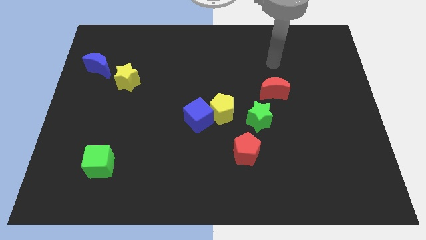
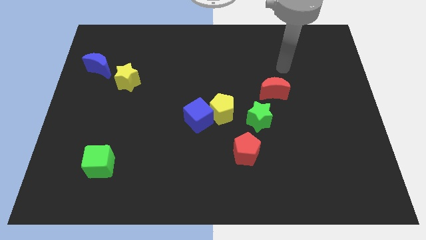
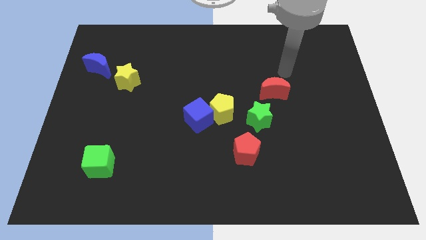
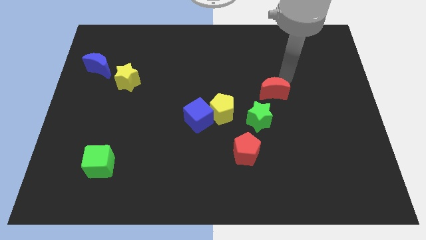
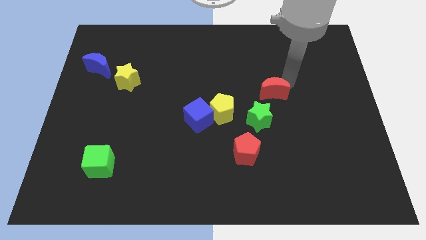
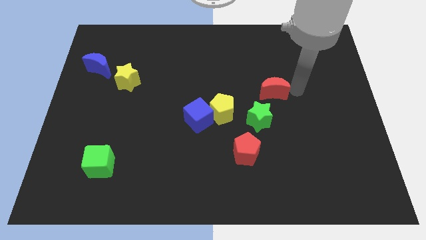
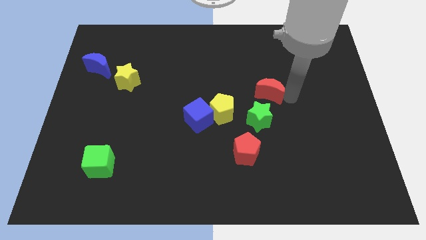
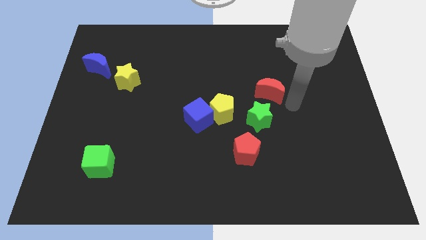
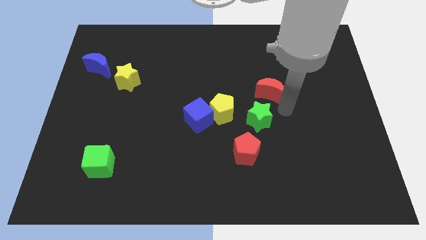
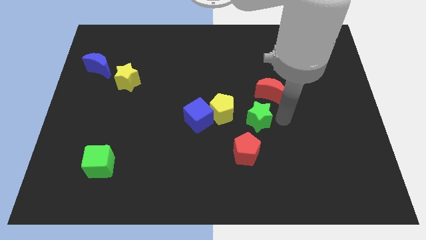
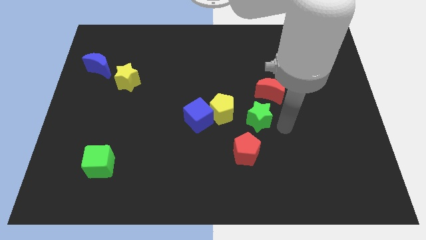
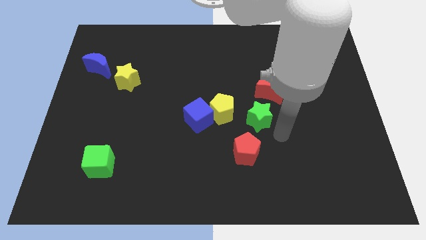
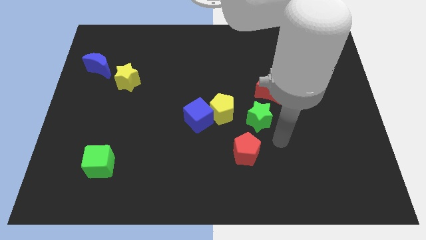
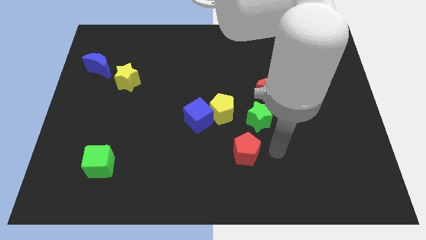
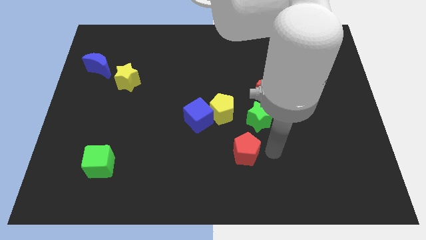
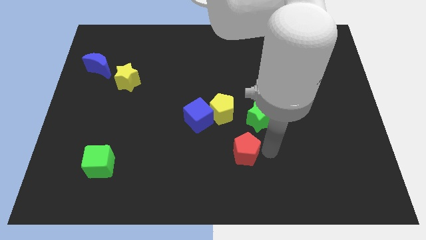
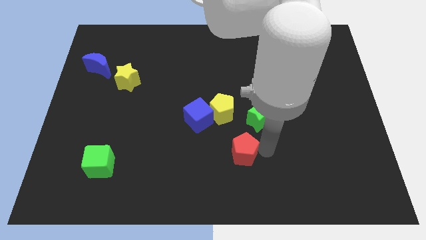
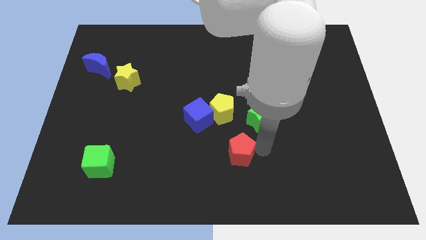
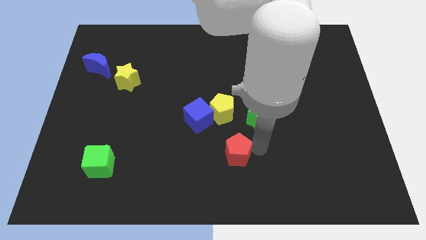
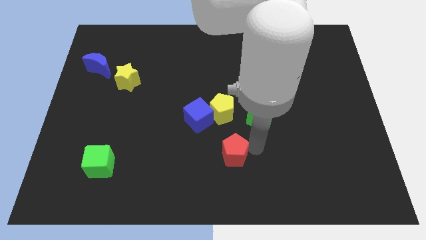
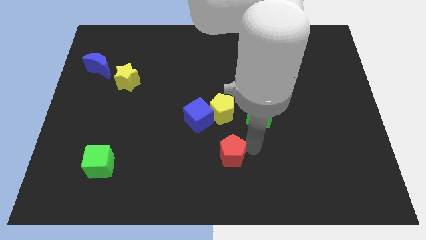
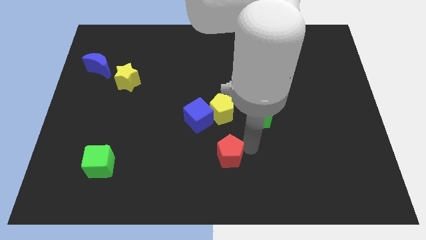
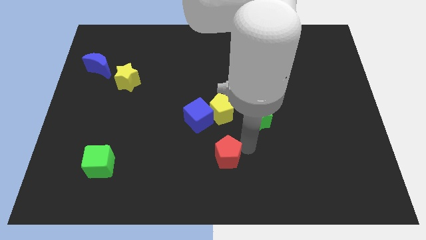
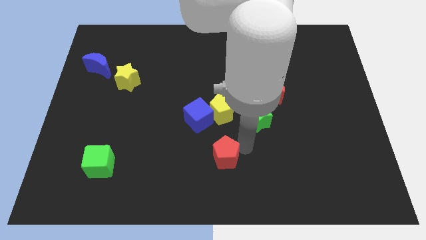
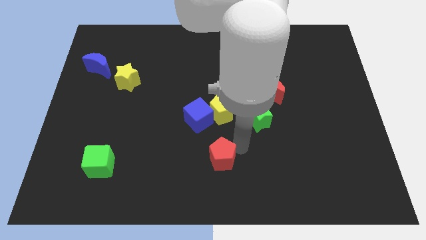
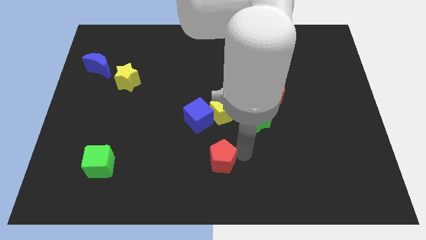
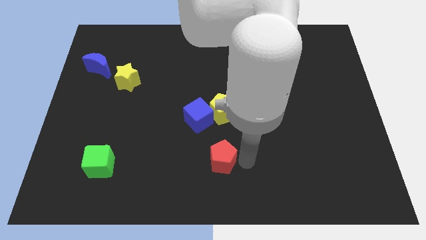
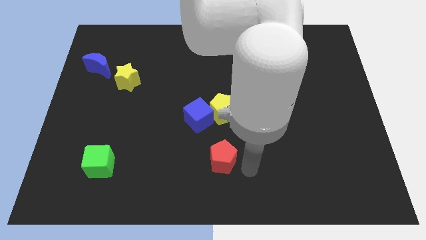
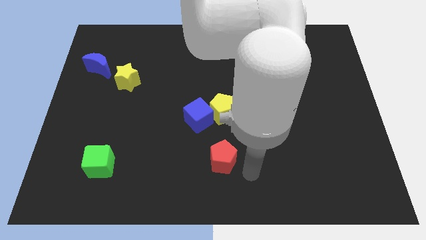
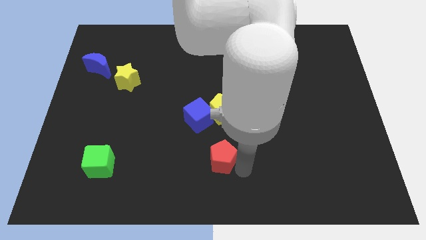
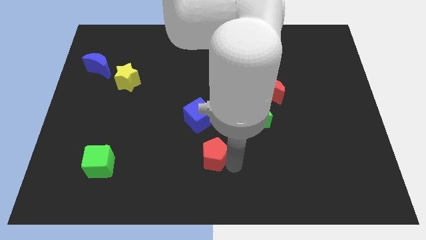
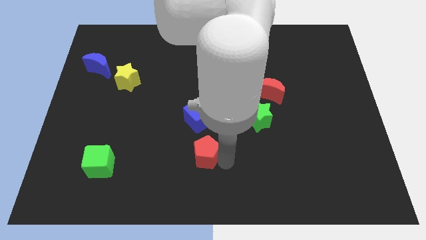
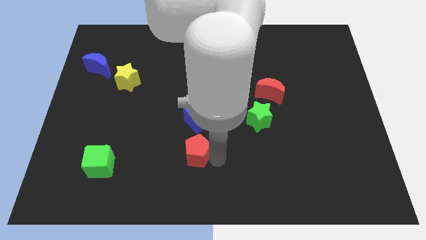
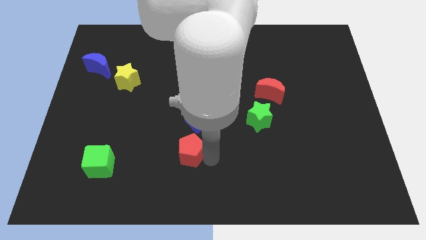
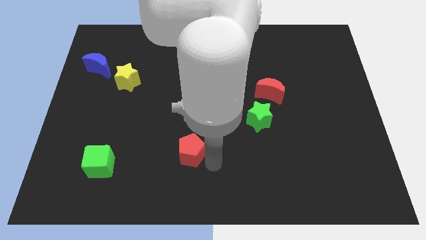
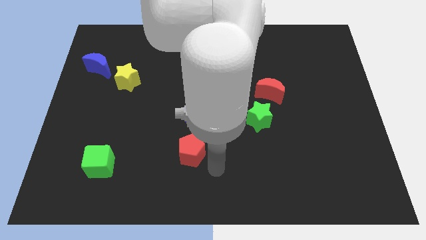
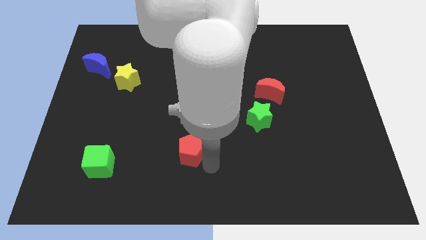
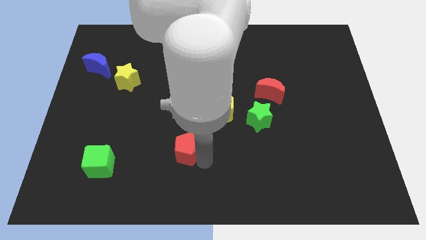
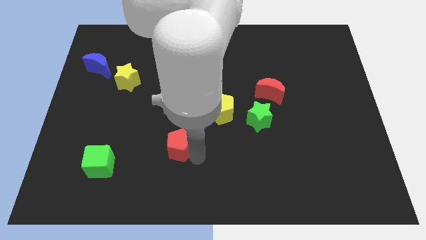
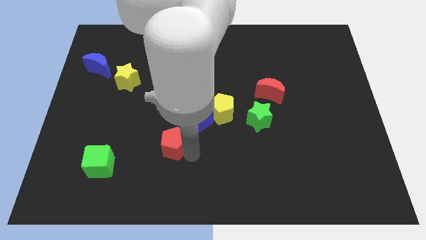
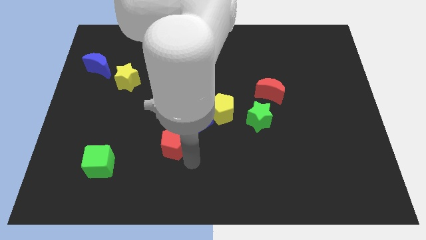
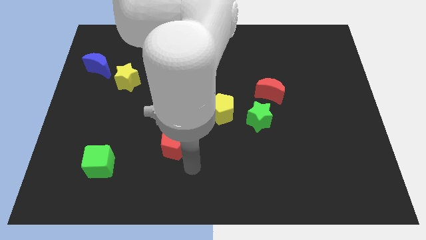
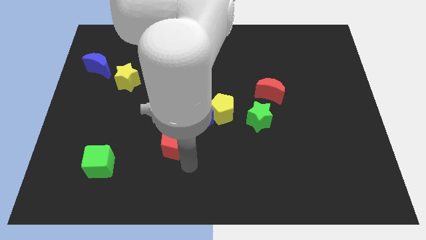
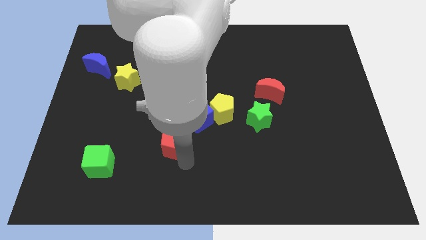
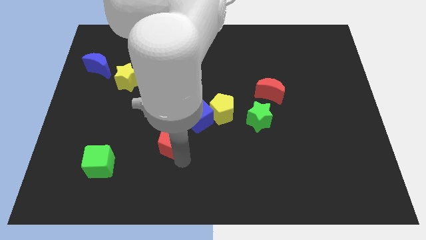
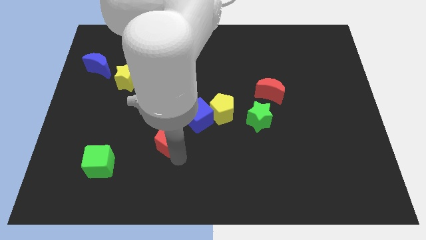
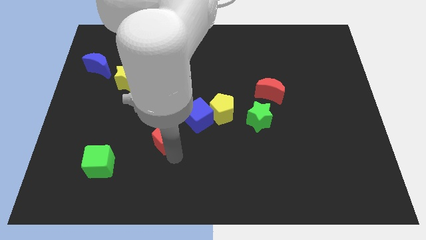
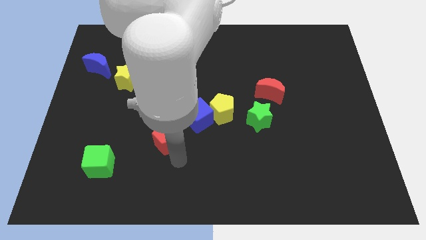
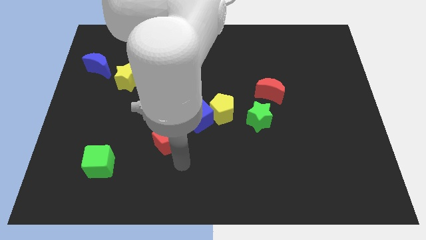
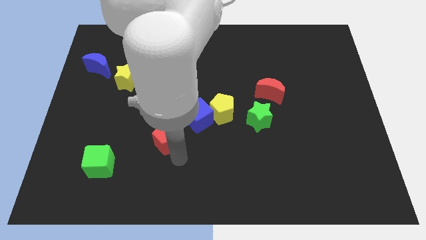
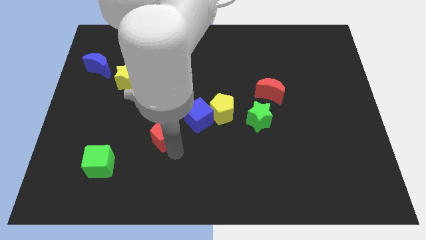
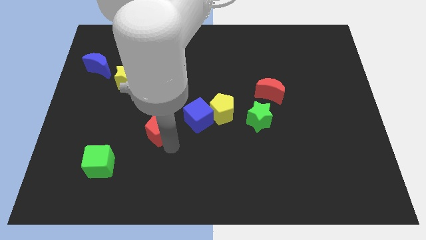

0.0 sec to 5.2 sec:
put the red pentagon to the left side of the blue cube

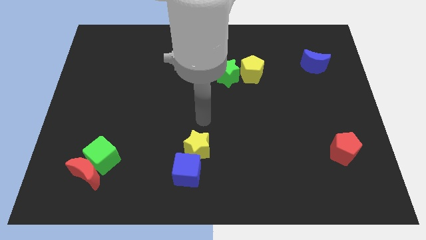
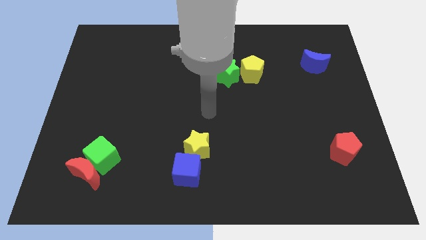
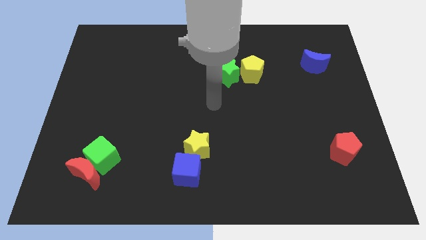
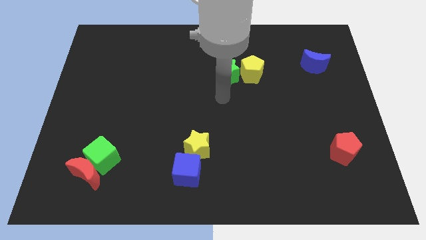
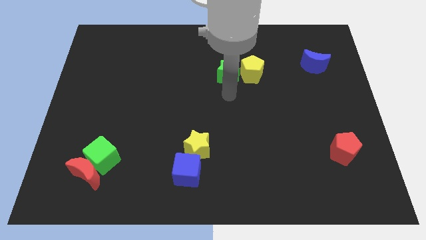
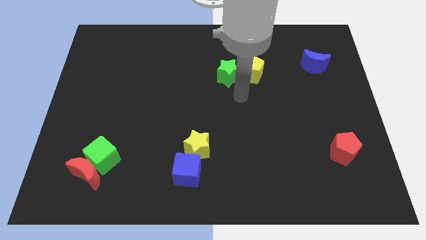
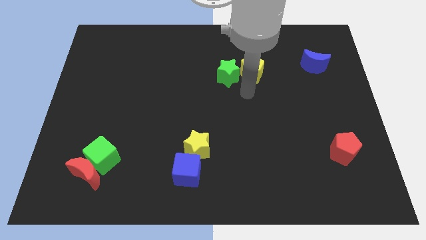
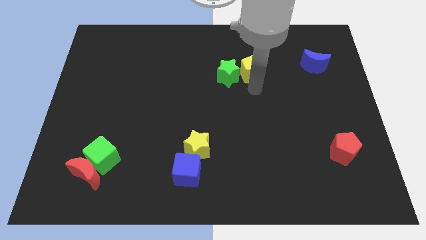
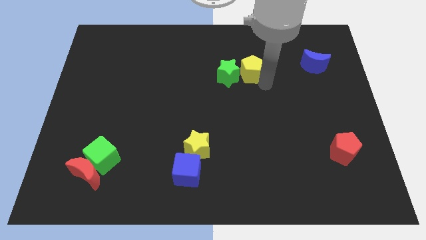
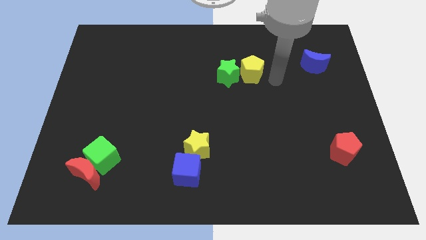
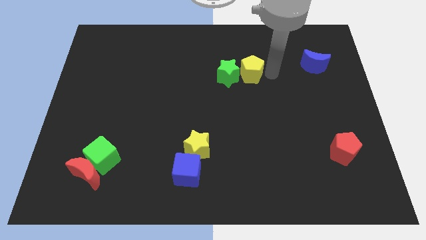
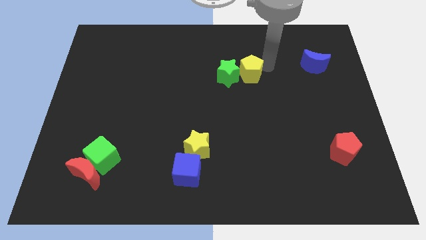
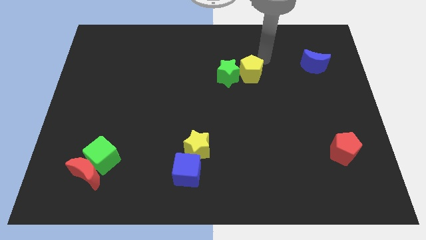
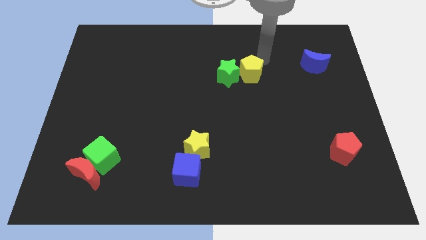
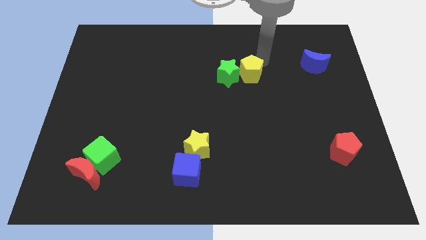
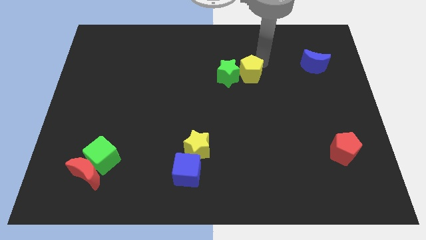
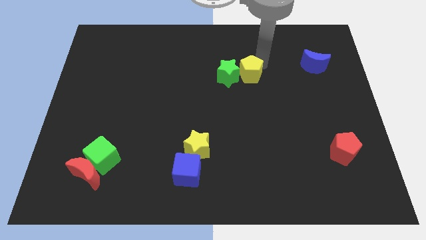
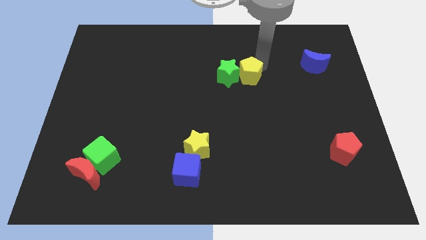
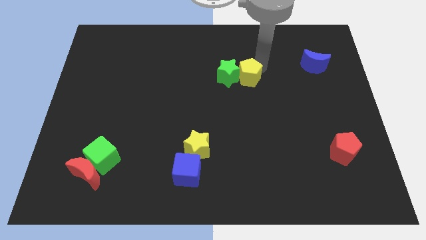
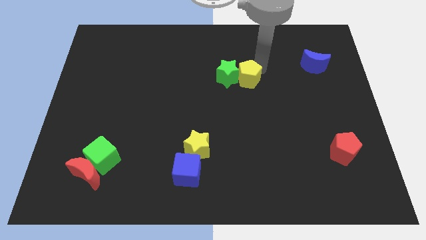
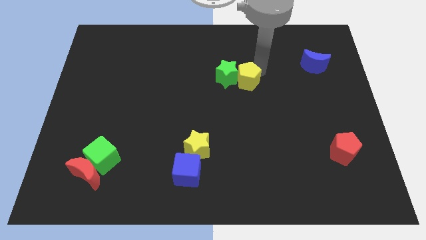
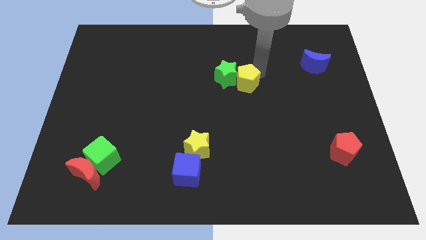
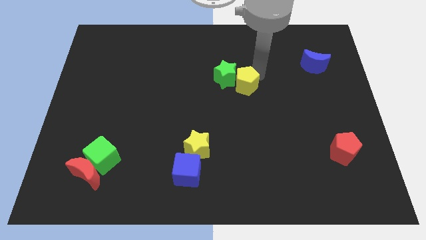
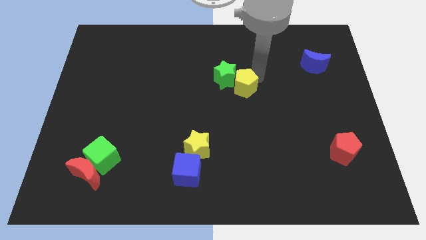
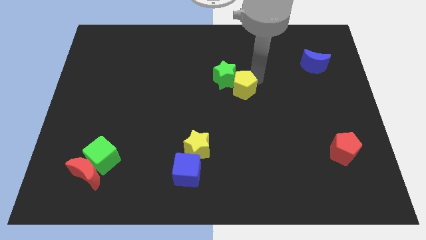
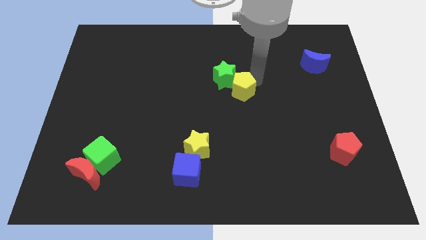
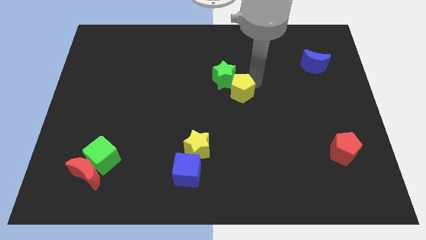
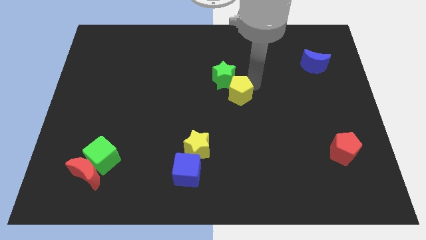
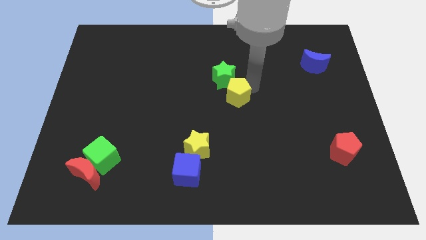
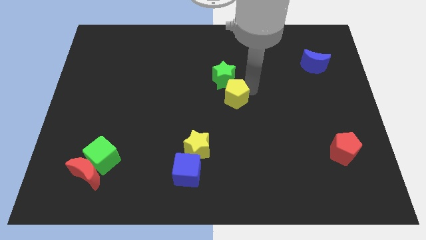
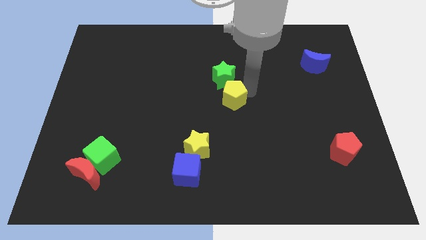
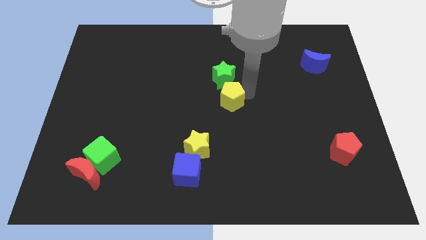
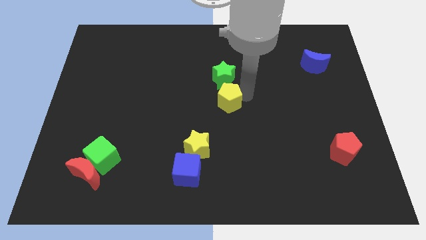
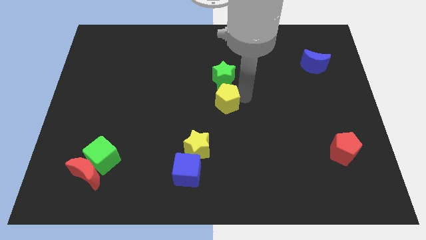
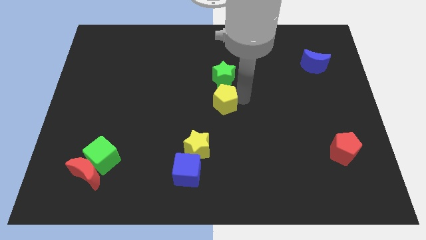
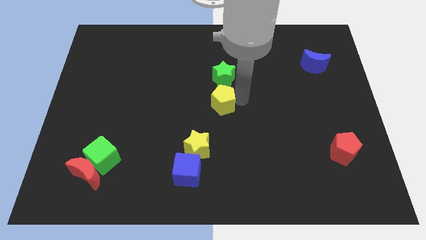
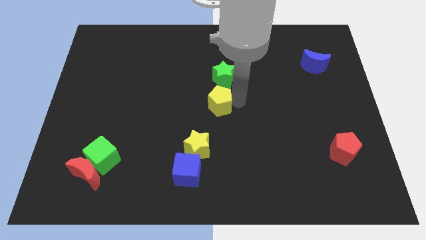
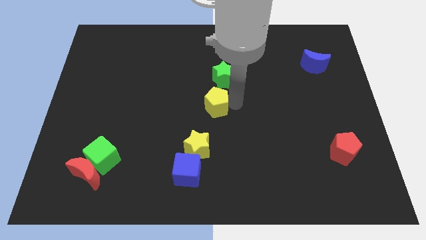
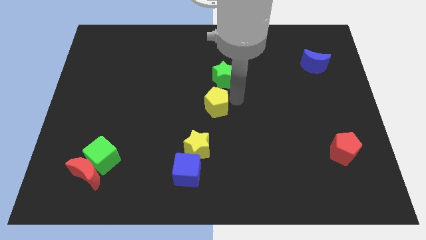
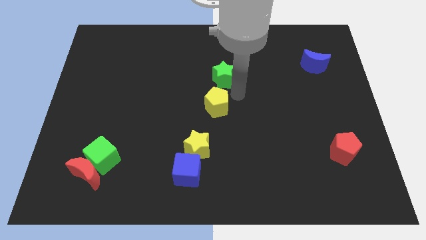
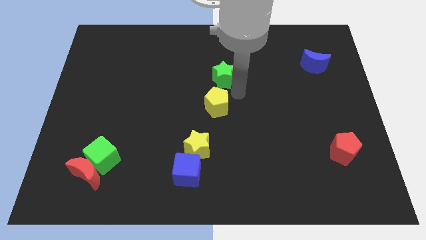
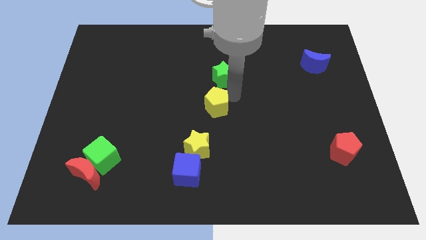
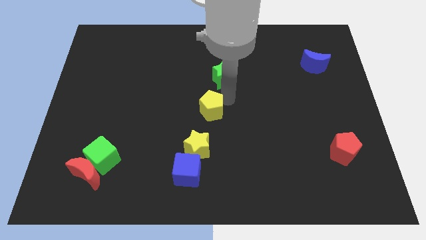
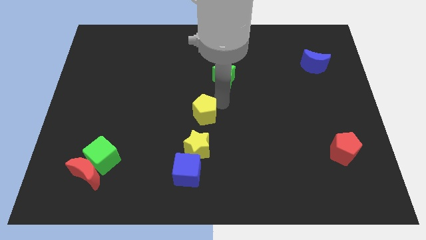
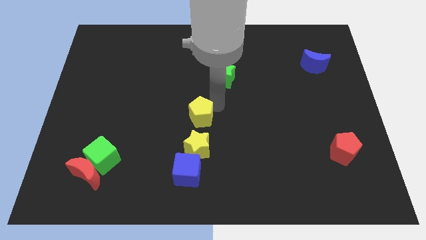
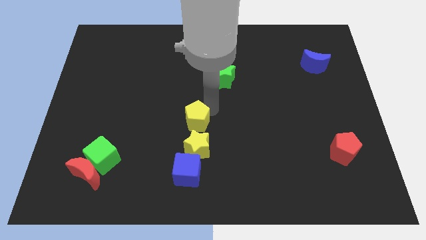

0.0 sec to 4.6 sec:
move the yellow pentagon to the top left of the yellow star
